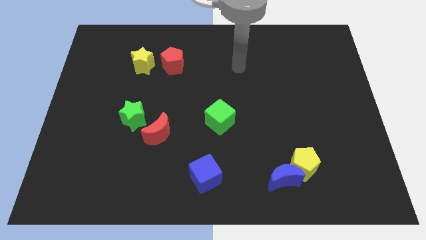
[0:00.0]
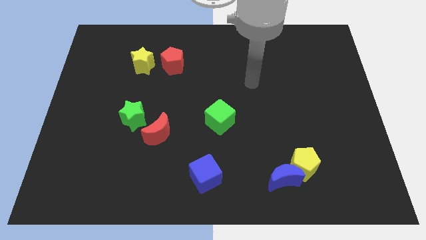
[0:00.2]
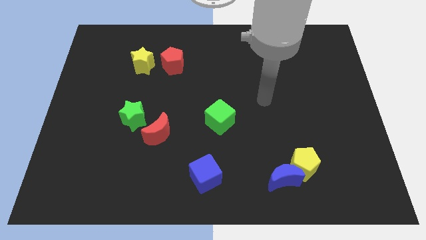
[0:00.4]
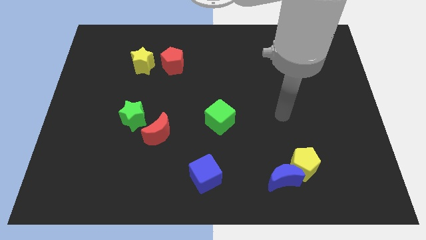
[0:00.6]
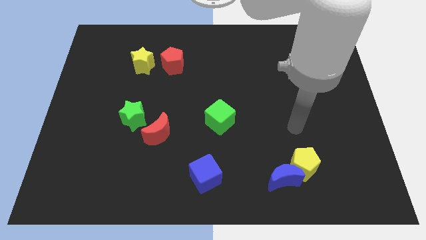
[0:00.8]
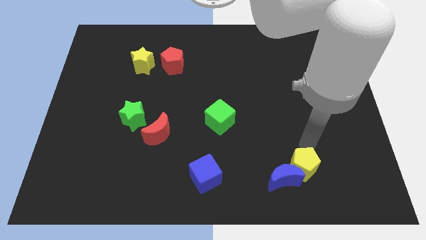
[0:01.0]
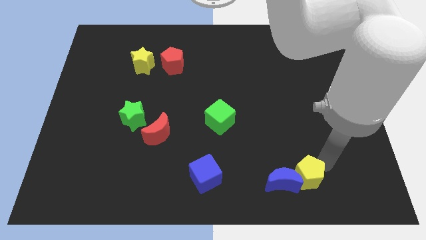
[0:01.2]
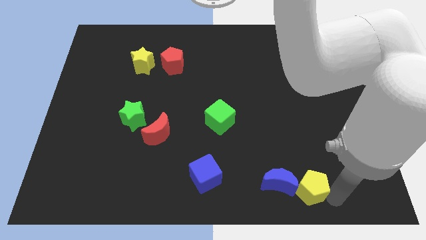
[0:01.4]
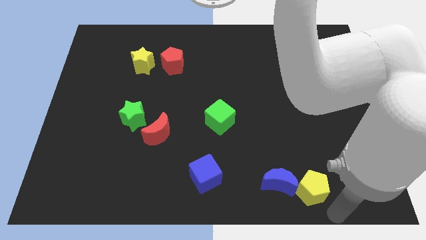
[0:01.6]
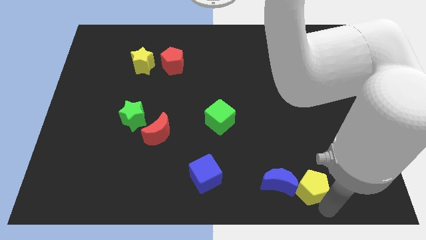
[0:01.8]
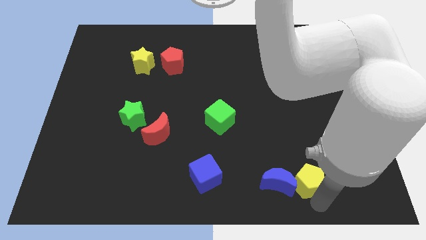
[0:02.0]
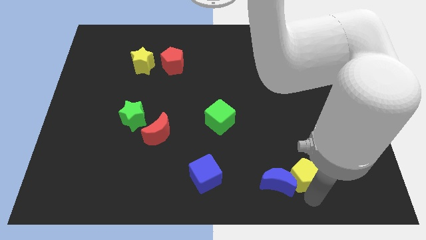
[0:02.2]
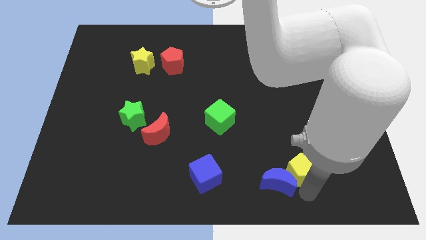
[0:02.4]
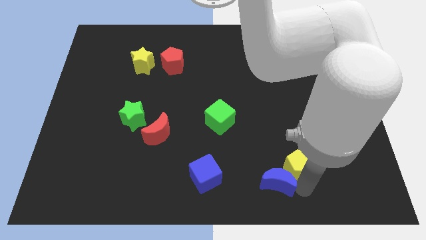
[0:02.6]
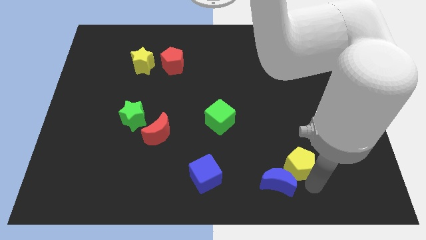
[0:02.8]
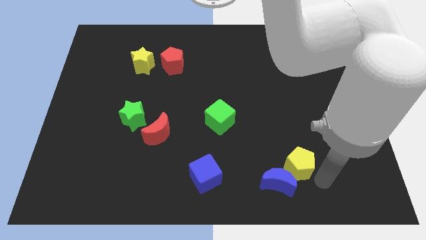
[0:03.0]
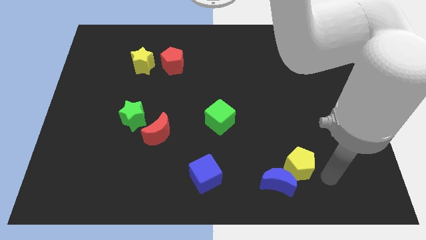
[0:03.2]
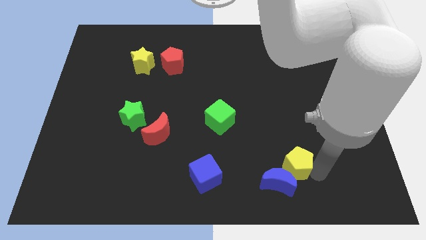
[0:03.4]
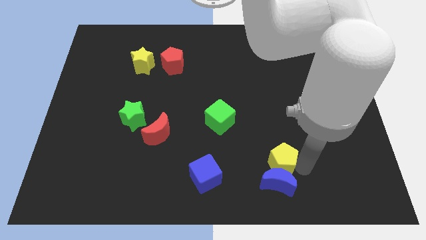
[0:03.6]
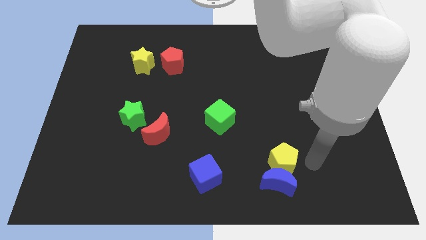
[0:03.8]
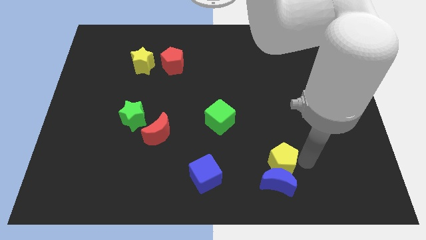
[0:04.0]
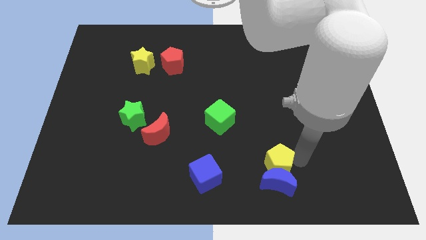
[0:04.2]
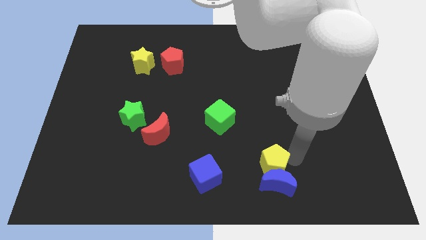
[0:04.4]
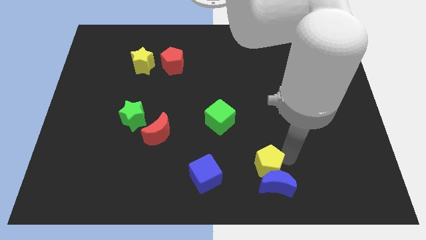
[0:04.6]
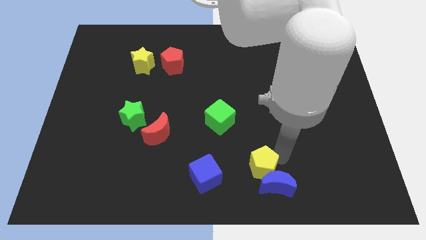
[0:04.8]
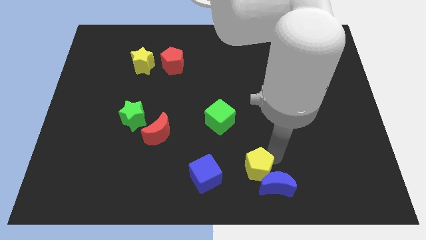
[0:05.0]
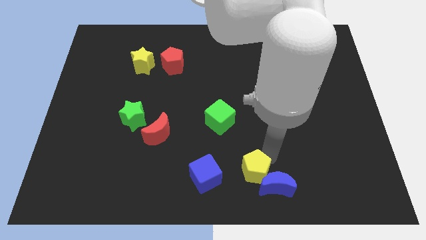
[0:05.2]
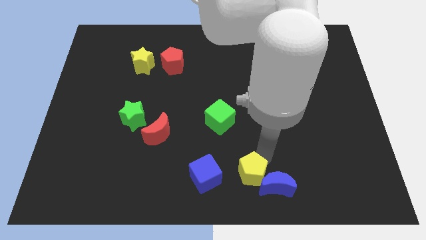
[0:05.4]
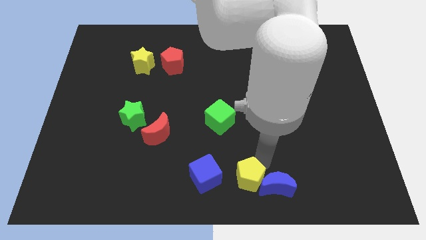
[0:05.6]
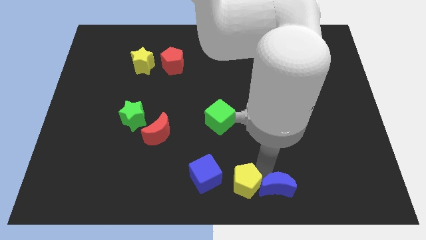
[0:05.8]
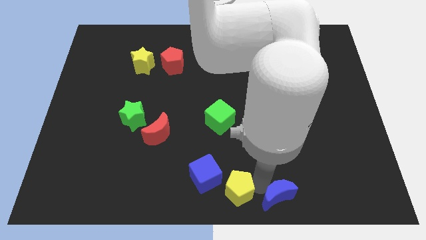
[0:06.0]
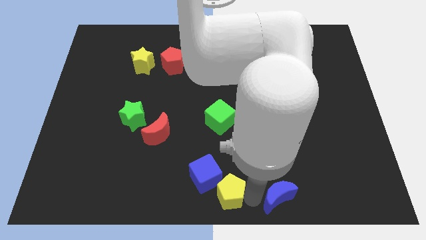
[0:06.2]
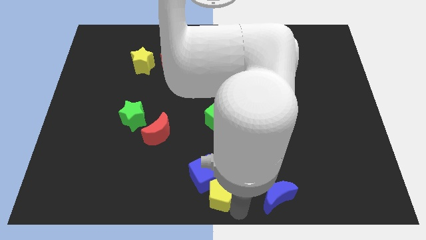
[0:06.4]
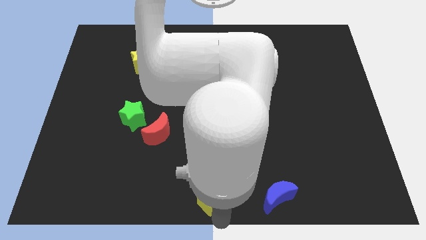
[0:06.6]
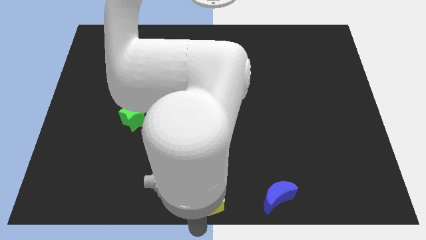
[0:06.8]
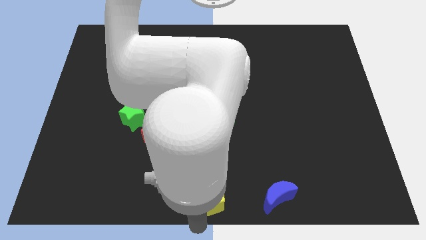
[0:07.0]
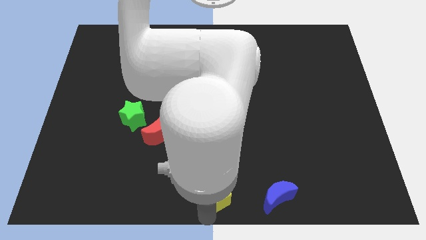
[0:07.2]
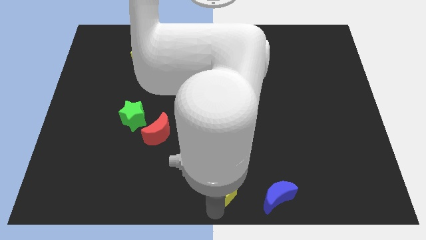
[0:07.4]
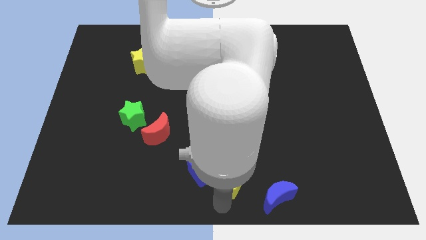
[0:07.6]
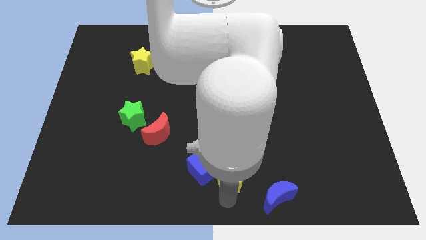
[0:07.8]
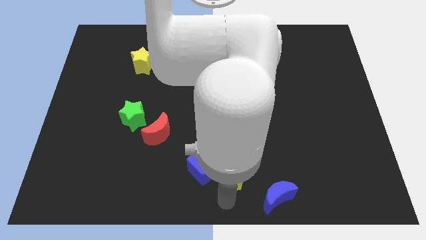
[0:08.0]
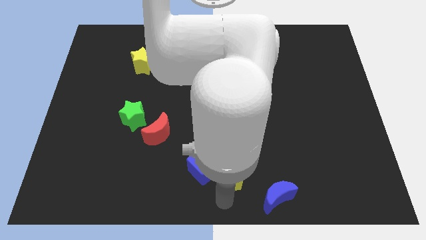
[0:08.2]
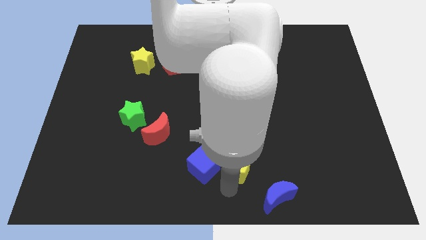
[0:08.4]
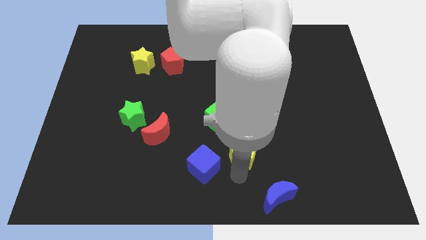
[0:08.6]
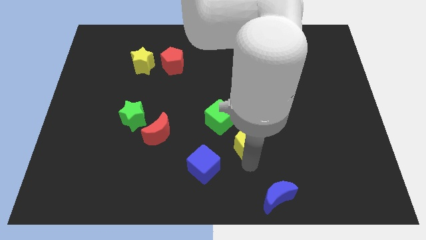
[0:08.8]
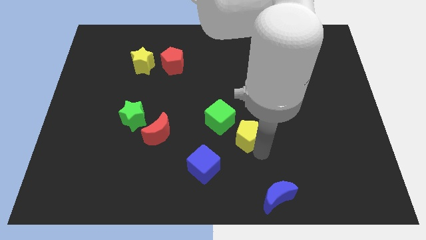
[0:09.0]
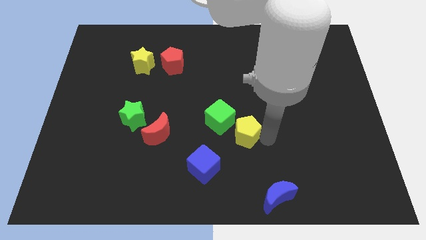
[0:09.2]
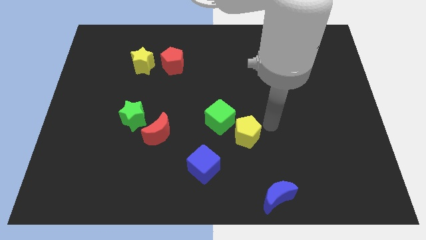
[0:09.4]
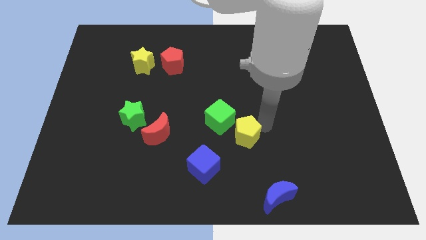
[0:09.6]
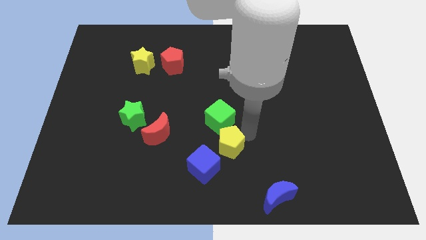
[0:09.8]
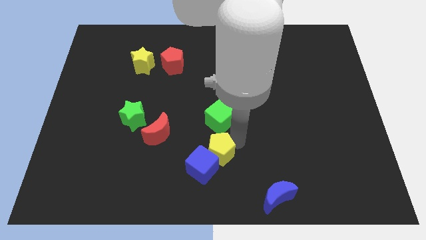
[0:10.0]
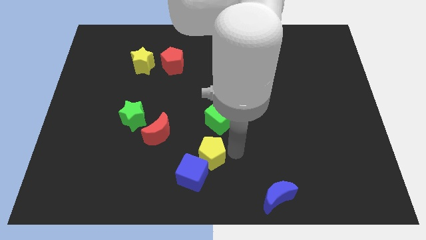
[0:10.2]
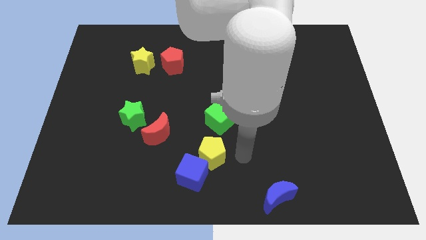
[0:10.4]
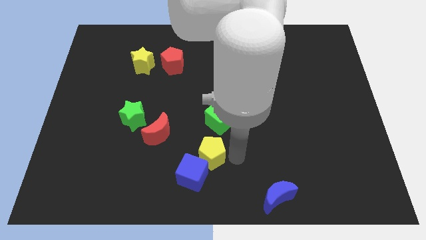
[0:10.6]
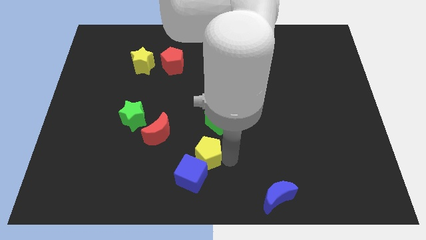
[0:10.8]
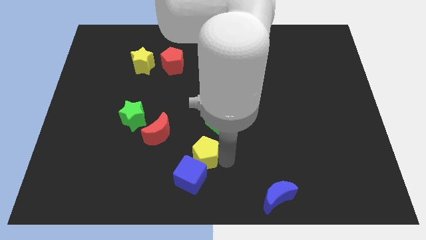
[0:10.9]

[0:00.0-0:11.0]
slide the yellow pentagon diagonally down and to the right of the red moon

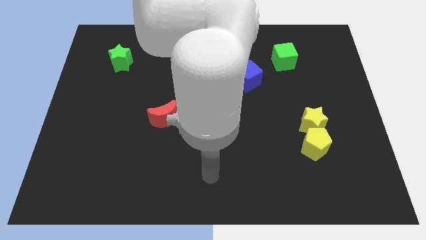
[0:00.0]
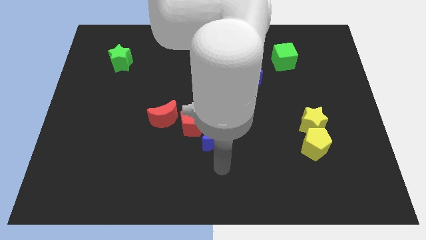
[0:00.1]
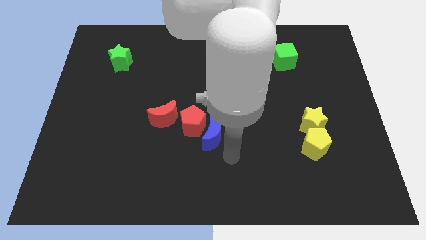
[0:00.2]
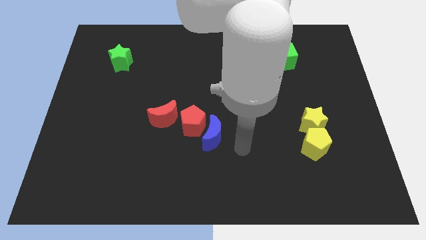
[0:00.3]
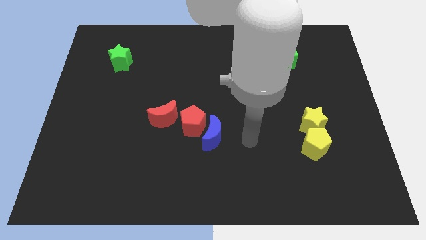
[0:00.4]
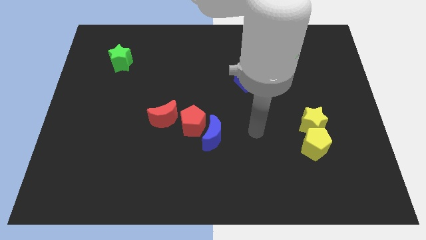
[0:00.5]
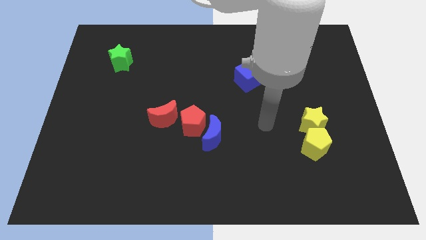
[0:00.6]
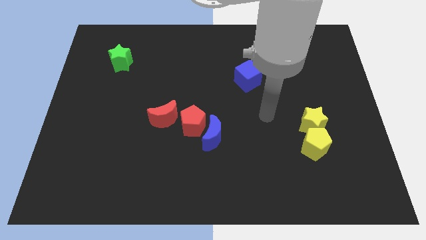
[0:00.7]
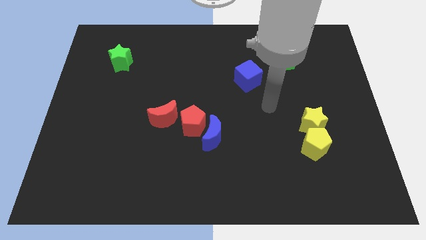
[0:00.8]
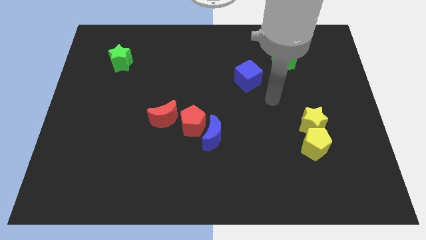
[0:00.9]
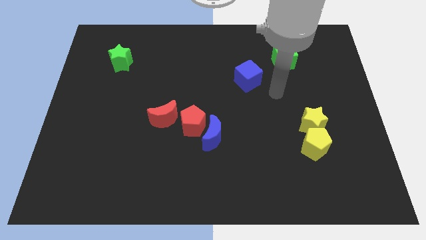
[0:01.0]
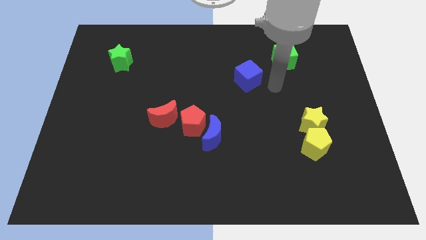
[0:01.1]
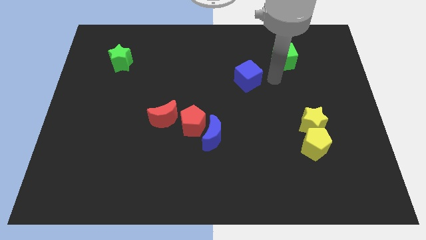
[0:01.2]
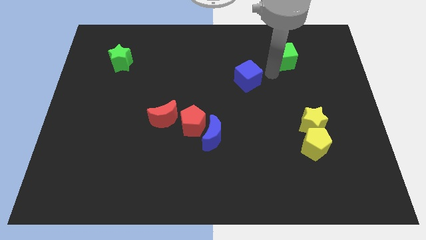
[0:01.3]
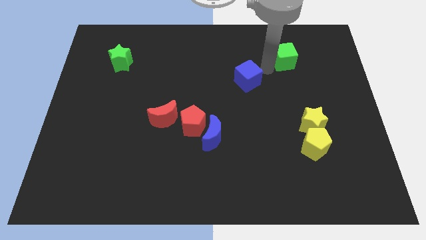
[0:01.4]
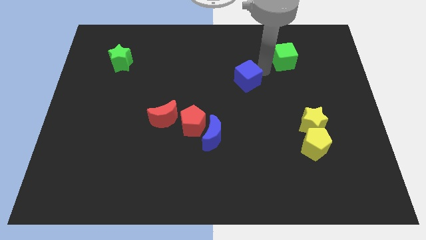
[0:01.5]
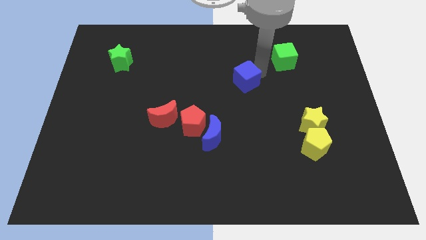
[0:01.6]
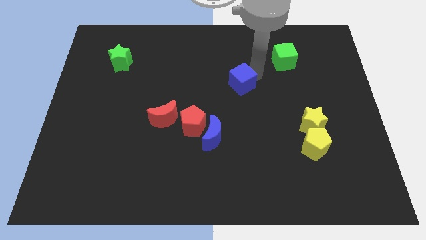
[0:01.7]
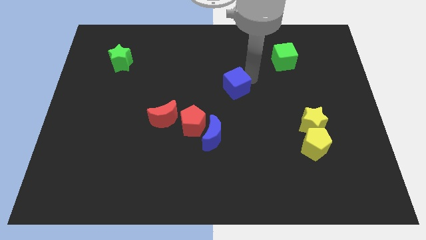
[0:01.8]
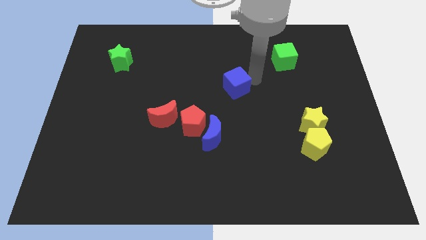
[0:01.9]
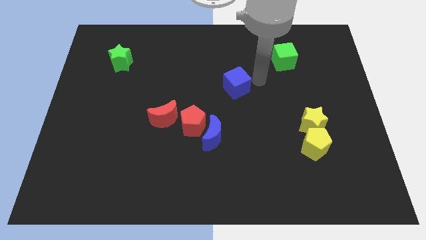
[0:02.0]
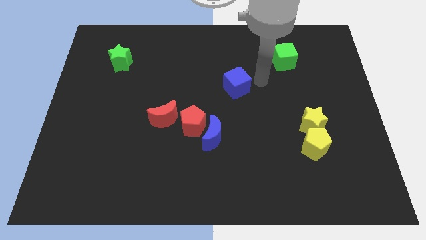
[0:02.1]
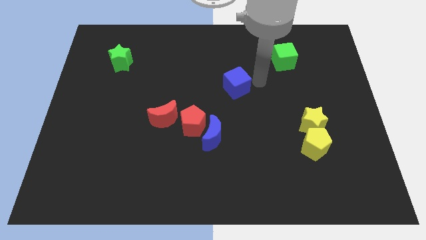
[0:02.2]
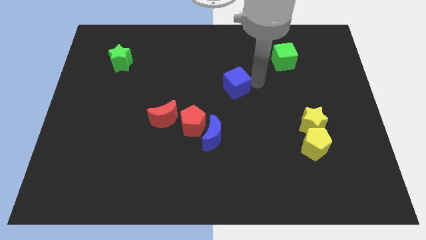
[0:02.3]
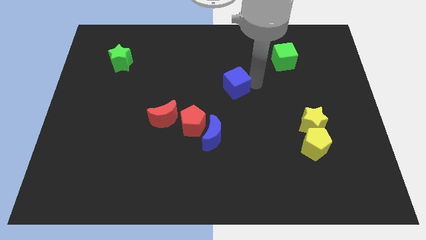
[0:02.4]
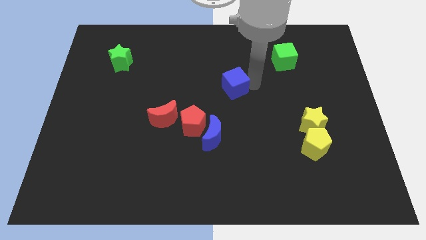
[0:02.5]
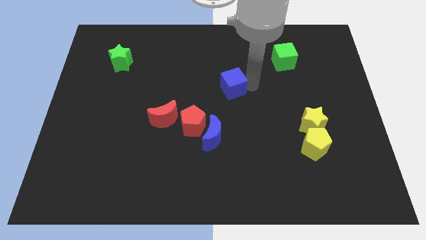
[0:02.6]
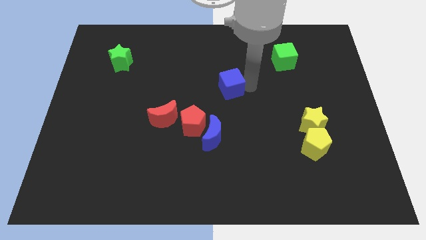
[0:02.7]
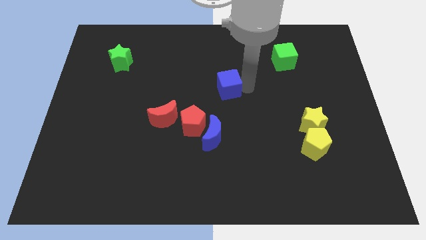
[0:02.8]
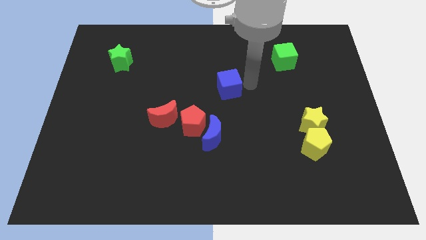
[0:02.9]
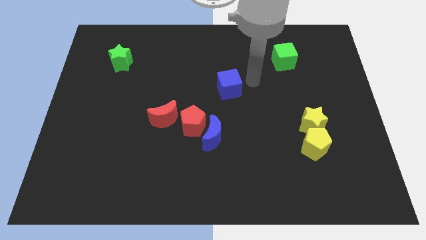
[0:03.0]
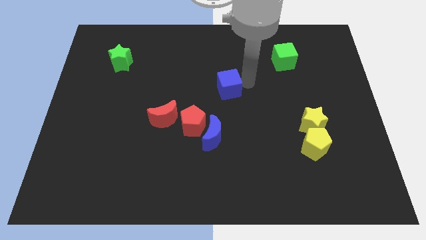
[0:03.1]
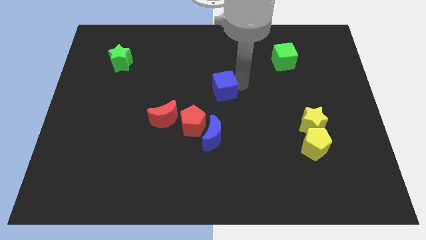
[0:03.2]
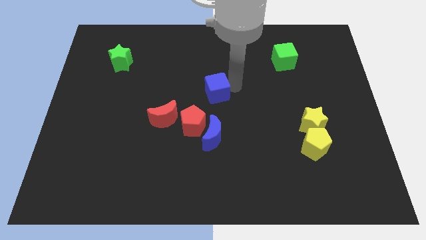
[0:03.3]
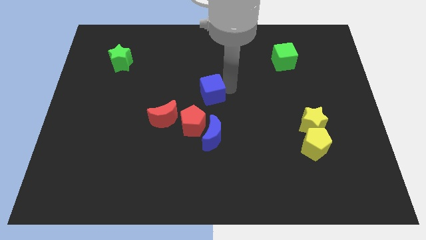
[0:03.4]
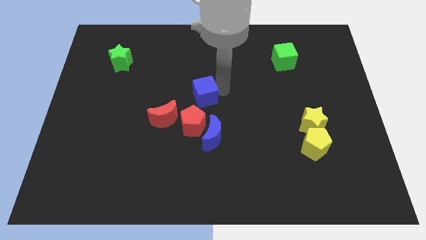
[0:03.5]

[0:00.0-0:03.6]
move the blue cube diagonally up and to the right of the red moon
